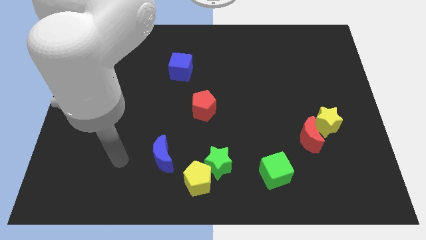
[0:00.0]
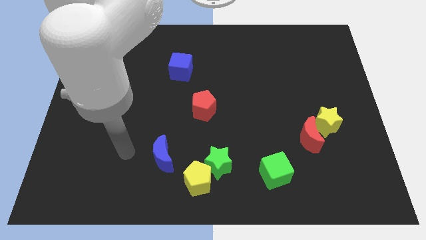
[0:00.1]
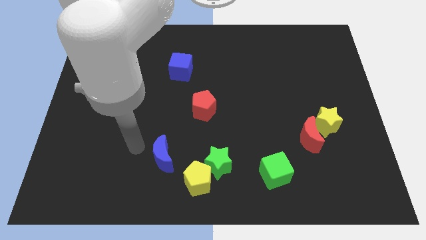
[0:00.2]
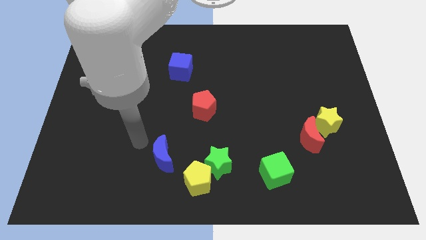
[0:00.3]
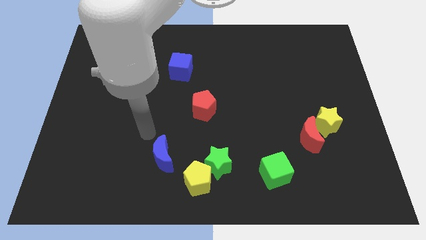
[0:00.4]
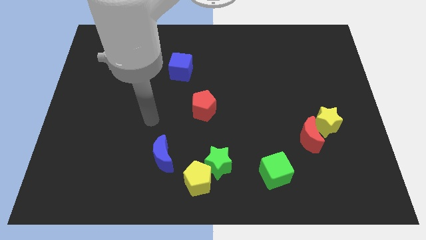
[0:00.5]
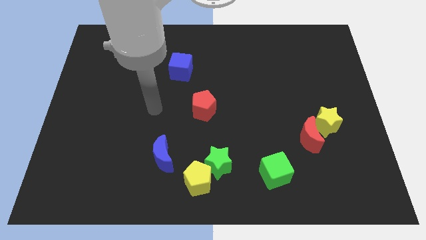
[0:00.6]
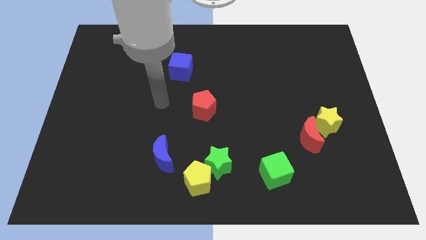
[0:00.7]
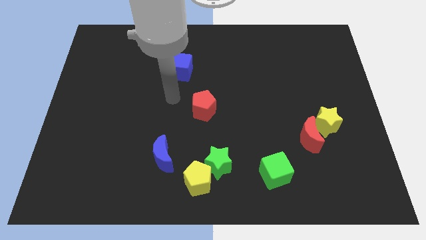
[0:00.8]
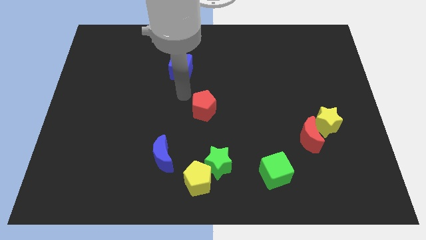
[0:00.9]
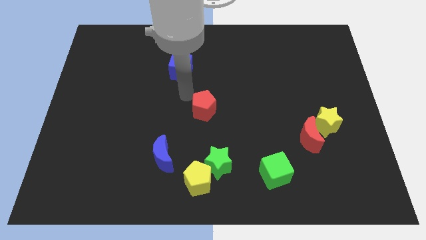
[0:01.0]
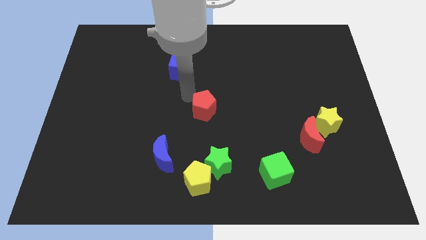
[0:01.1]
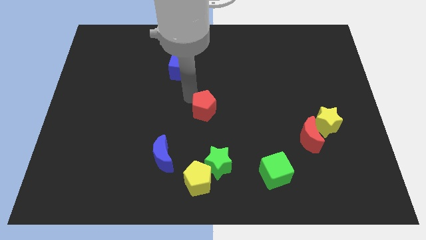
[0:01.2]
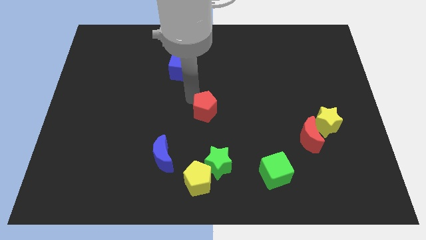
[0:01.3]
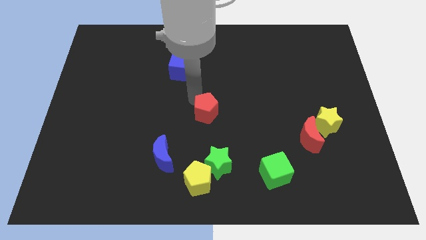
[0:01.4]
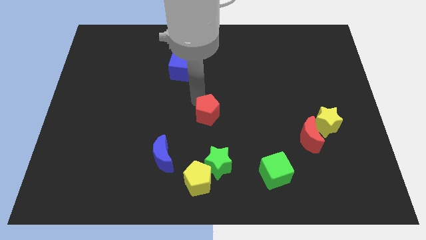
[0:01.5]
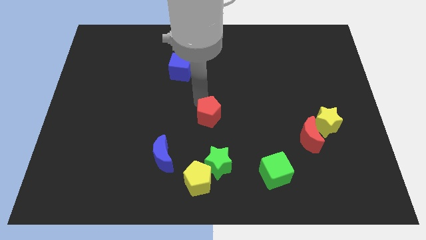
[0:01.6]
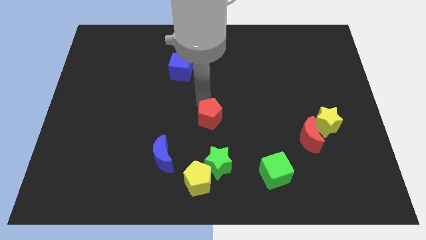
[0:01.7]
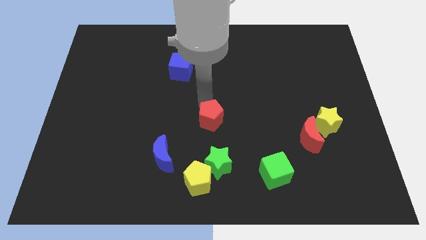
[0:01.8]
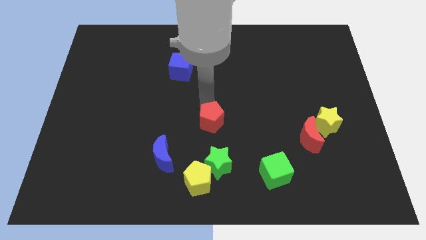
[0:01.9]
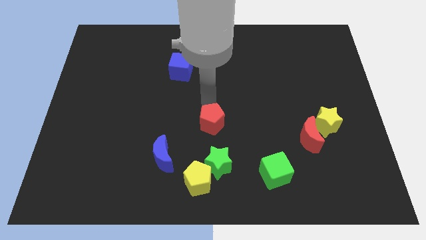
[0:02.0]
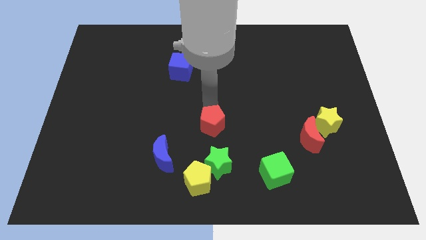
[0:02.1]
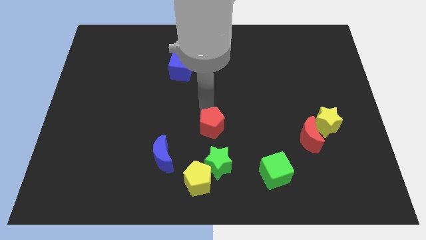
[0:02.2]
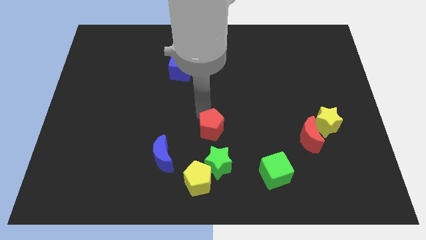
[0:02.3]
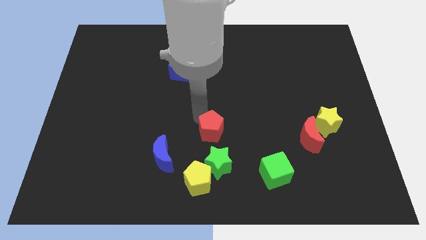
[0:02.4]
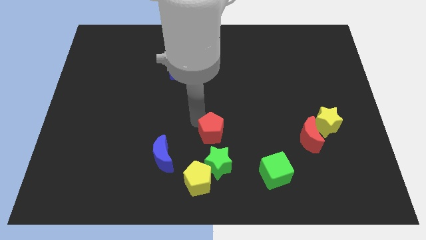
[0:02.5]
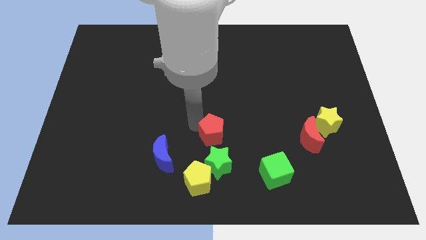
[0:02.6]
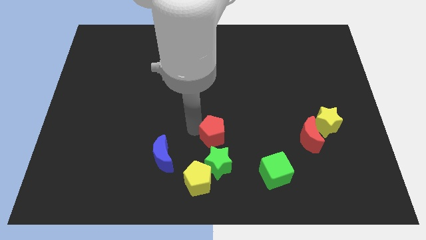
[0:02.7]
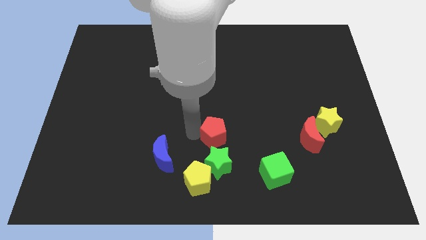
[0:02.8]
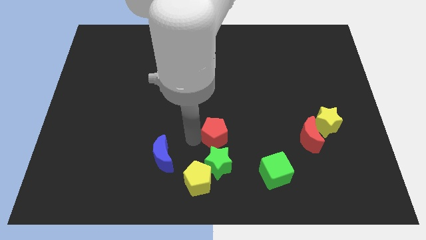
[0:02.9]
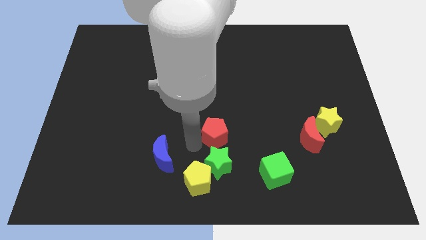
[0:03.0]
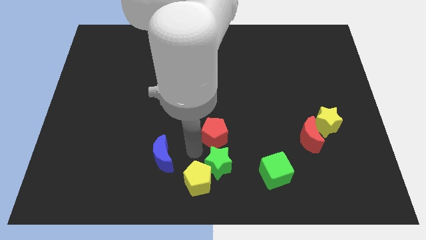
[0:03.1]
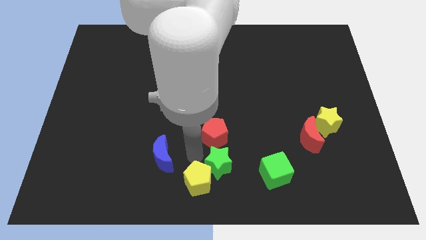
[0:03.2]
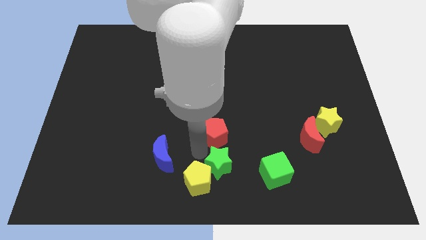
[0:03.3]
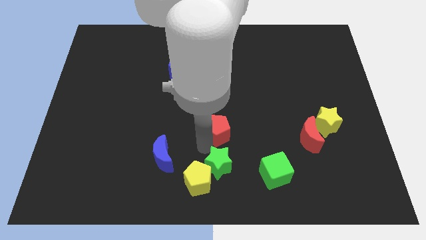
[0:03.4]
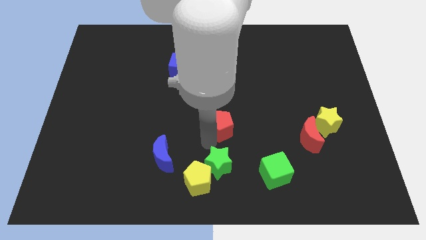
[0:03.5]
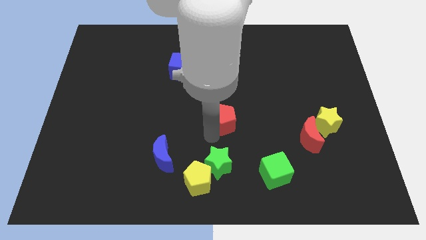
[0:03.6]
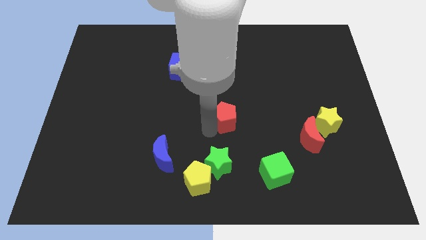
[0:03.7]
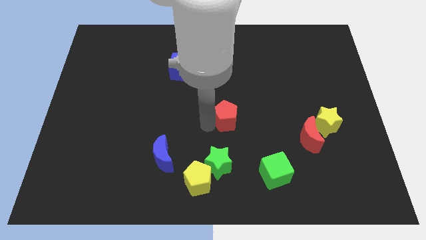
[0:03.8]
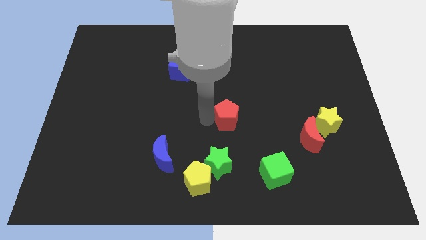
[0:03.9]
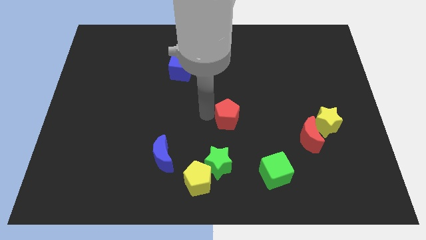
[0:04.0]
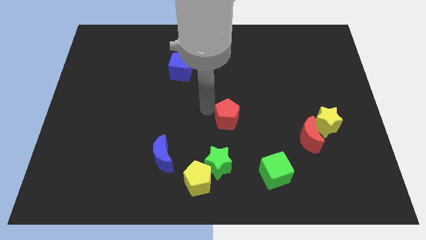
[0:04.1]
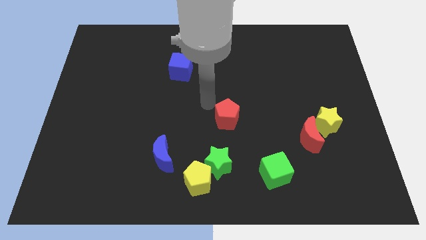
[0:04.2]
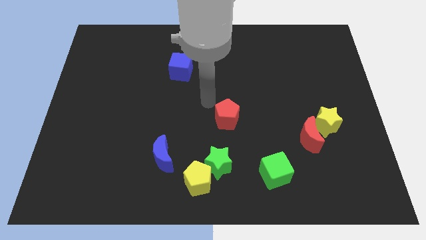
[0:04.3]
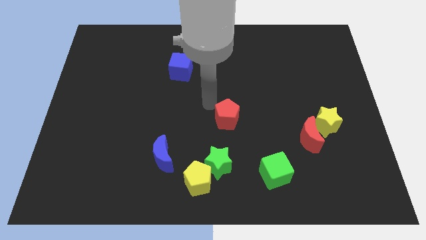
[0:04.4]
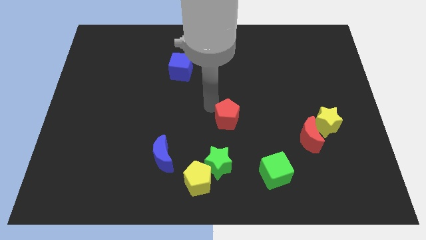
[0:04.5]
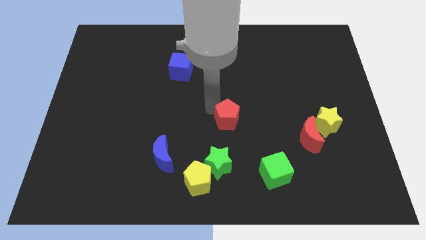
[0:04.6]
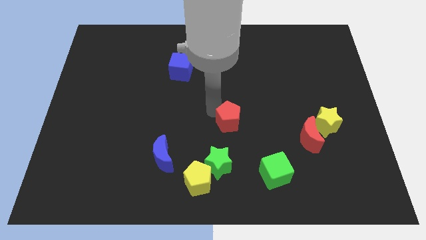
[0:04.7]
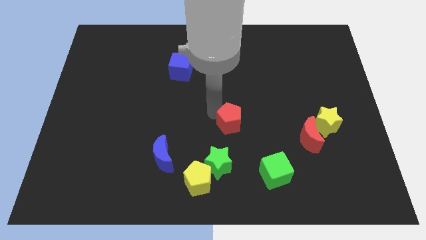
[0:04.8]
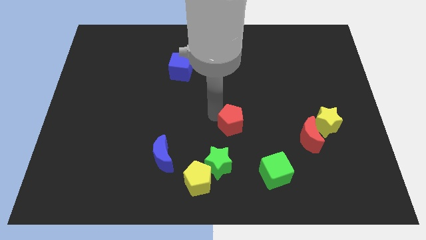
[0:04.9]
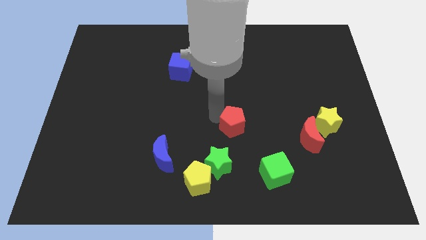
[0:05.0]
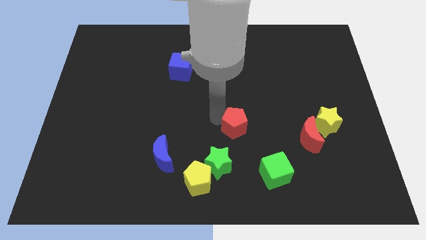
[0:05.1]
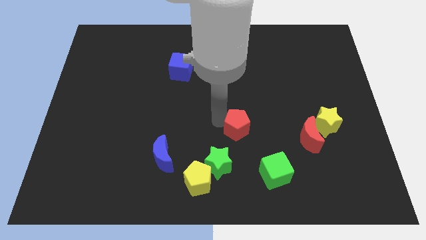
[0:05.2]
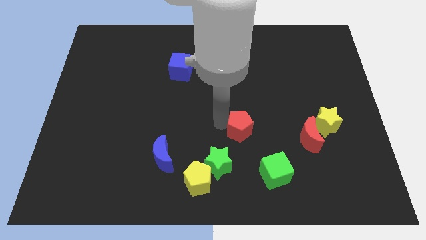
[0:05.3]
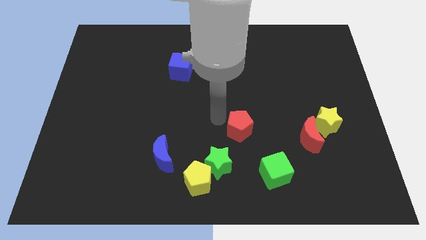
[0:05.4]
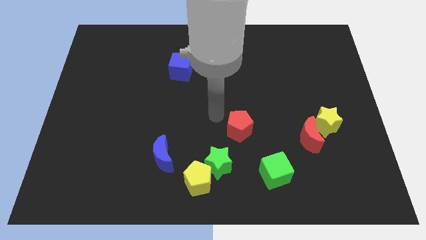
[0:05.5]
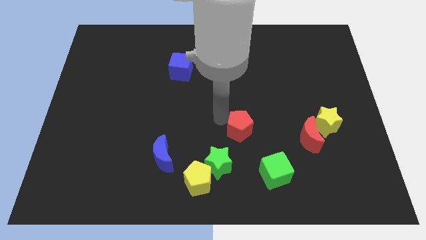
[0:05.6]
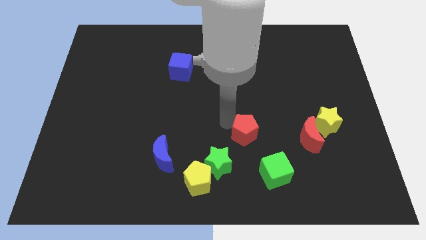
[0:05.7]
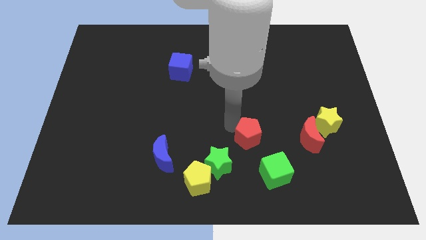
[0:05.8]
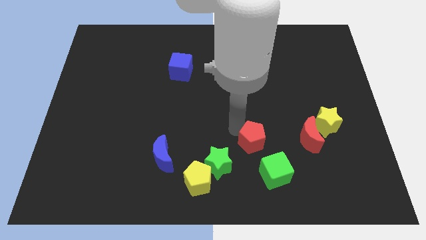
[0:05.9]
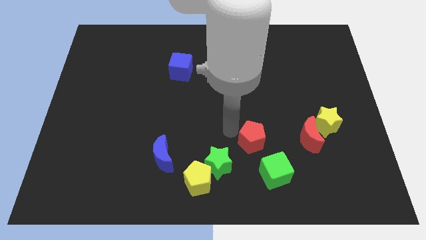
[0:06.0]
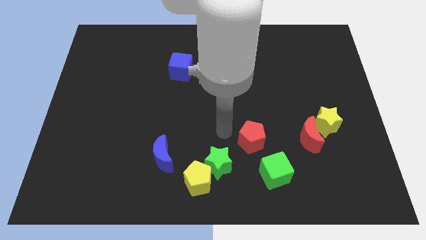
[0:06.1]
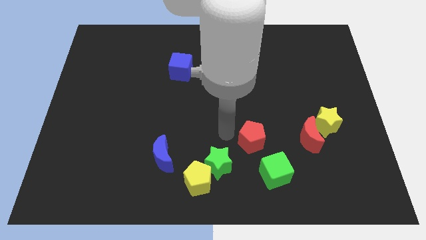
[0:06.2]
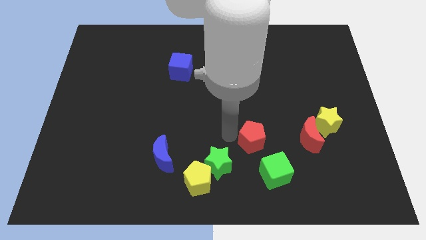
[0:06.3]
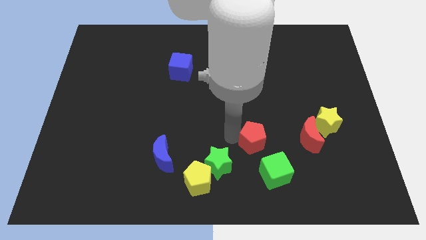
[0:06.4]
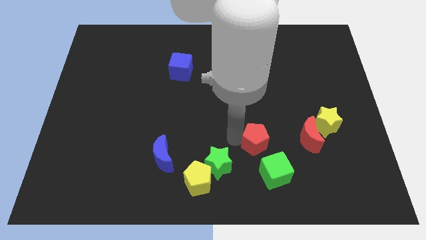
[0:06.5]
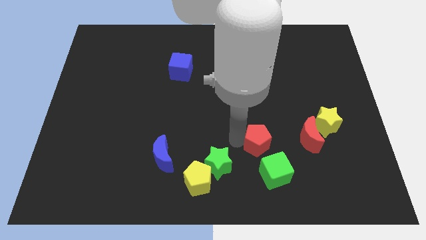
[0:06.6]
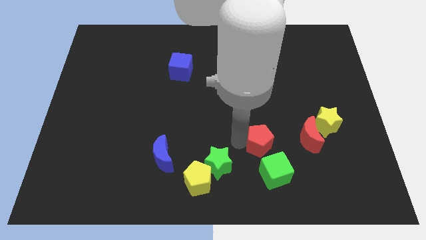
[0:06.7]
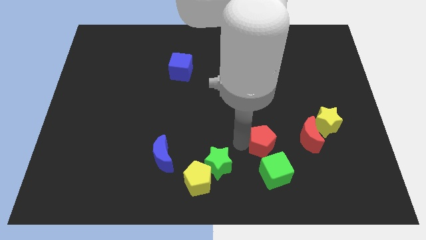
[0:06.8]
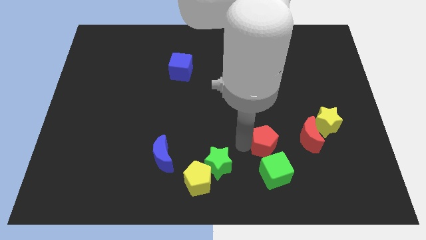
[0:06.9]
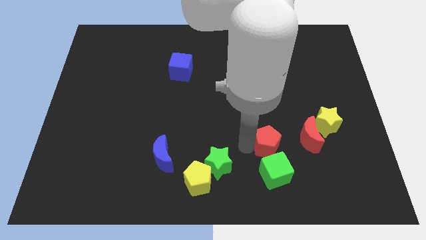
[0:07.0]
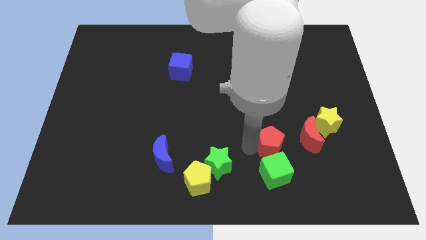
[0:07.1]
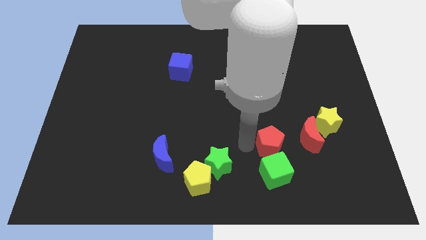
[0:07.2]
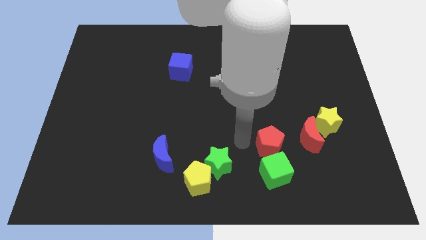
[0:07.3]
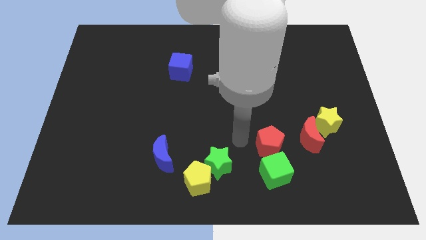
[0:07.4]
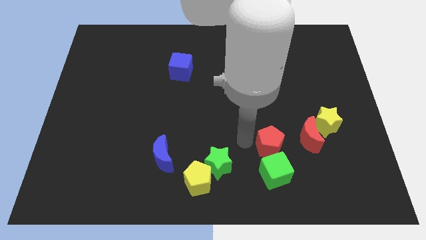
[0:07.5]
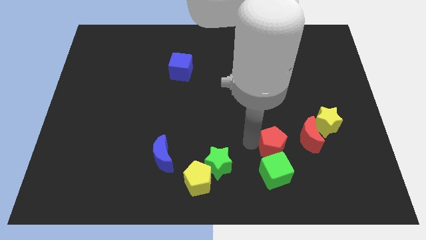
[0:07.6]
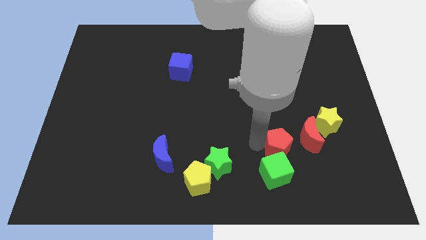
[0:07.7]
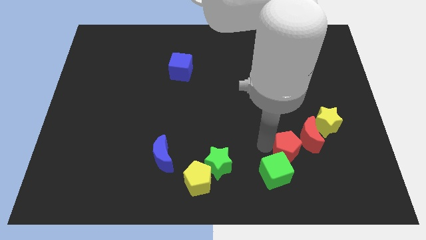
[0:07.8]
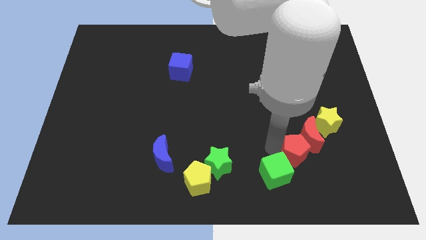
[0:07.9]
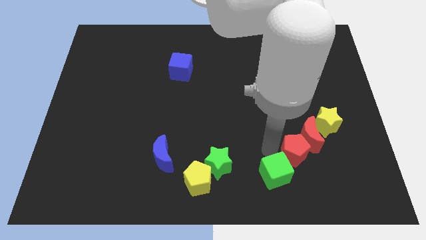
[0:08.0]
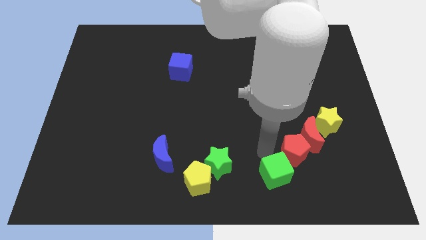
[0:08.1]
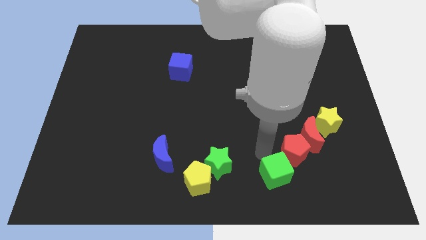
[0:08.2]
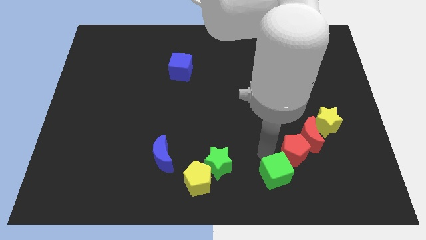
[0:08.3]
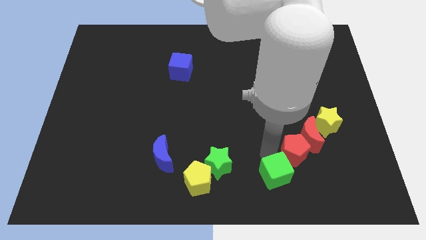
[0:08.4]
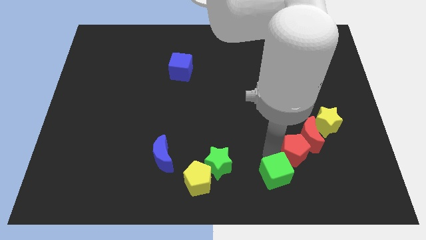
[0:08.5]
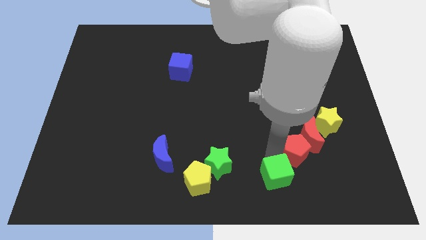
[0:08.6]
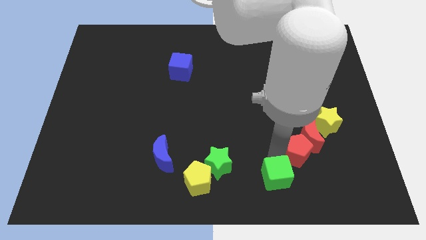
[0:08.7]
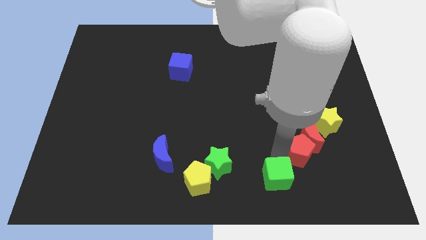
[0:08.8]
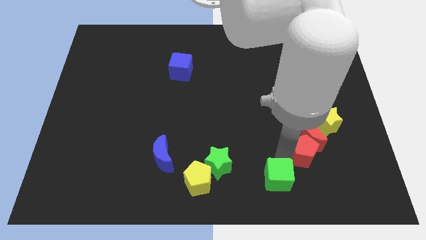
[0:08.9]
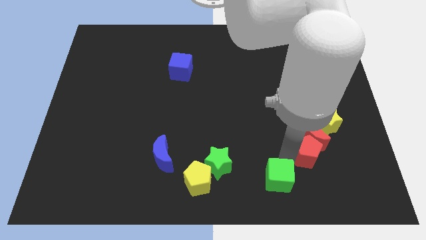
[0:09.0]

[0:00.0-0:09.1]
move the red pentagon diagonally down and to the right of the red moon
